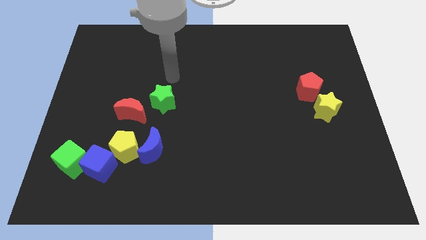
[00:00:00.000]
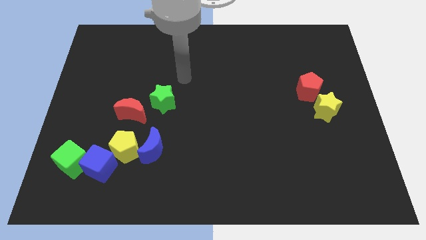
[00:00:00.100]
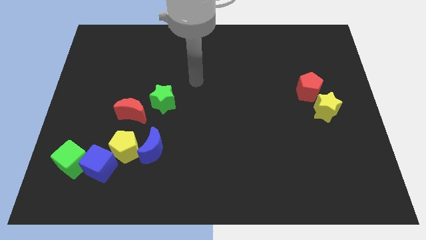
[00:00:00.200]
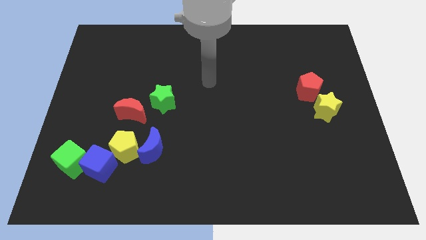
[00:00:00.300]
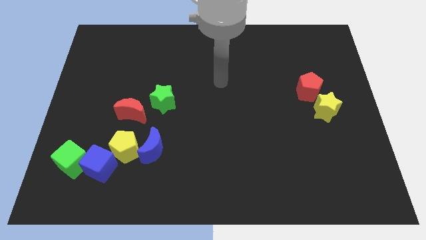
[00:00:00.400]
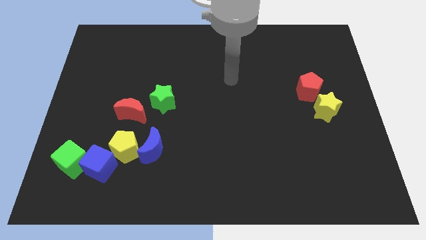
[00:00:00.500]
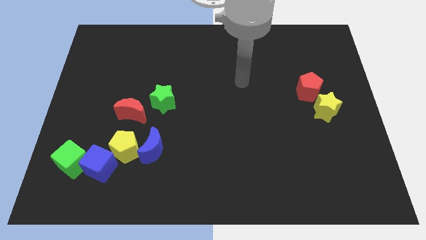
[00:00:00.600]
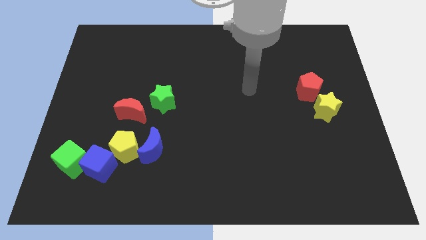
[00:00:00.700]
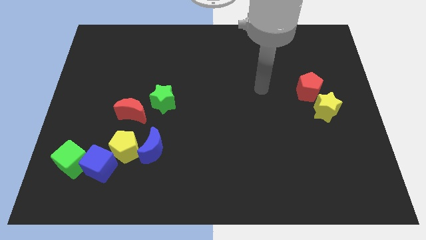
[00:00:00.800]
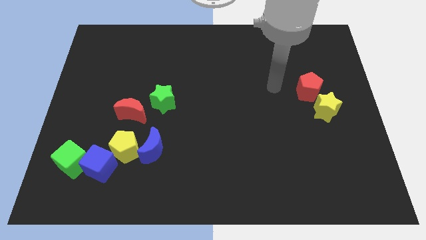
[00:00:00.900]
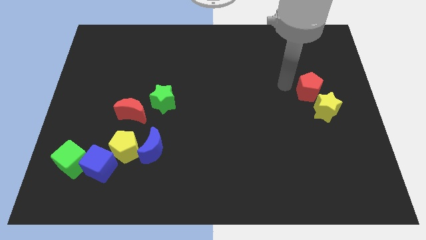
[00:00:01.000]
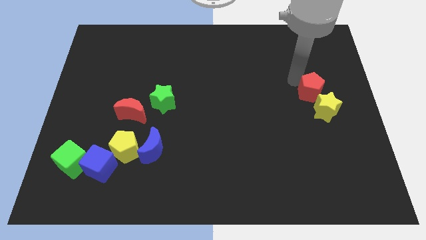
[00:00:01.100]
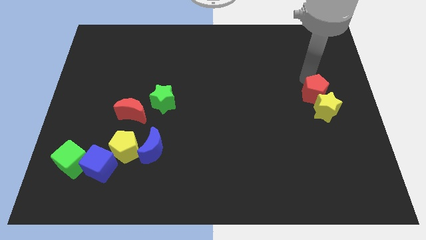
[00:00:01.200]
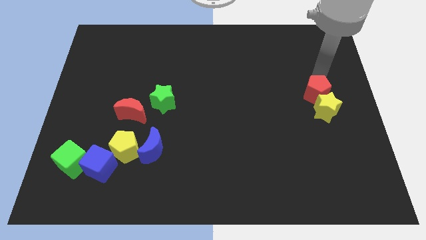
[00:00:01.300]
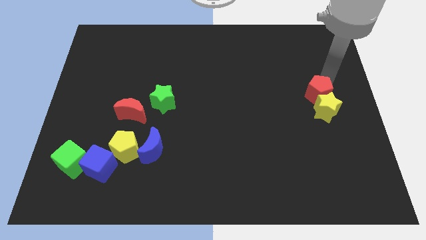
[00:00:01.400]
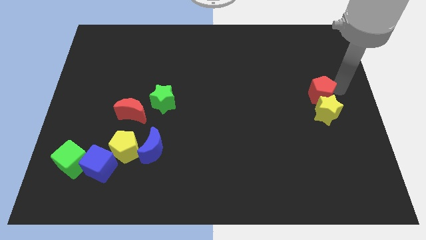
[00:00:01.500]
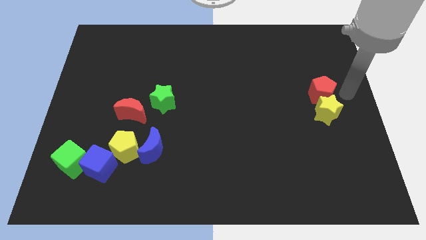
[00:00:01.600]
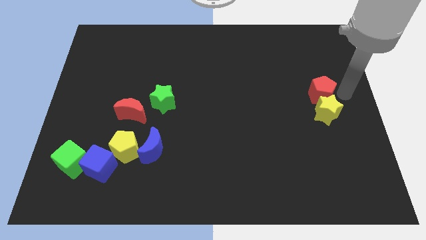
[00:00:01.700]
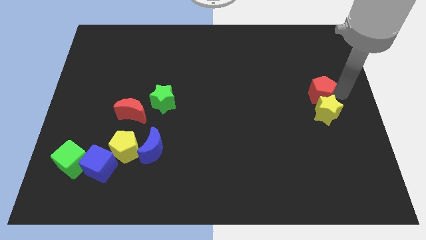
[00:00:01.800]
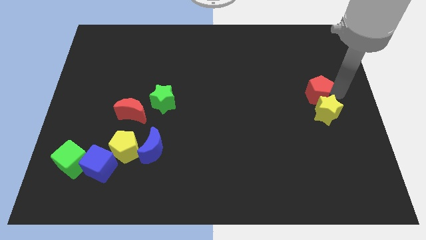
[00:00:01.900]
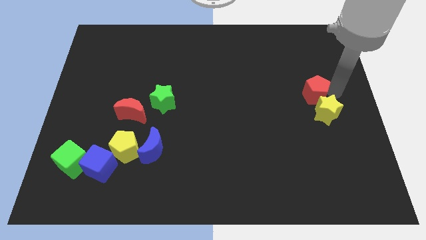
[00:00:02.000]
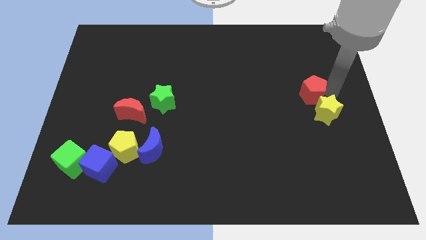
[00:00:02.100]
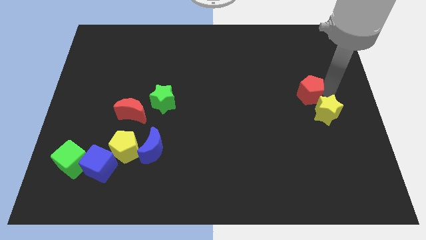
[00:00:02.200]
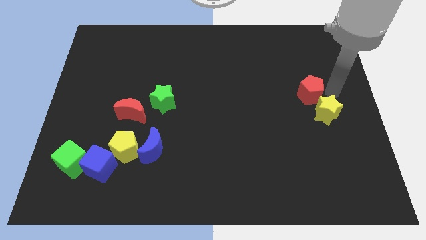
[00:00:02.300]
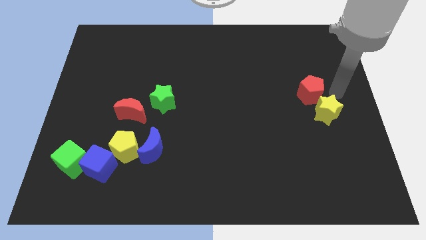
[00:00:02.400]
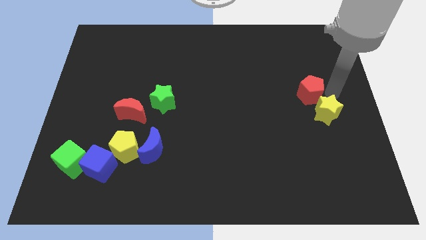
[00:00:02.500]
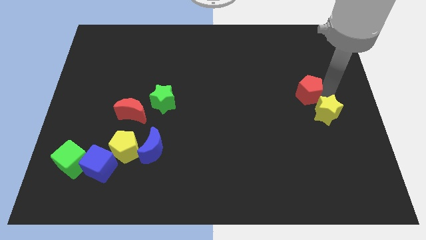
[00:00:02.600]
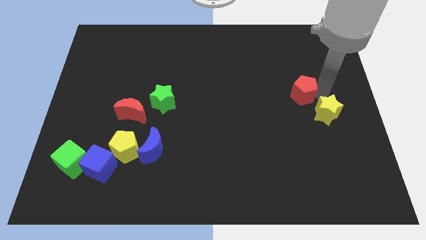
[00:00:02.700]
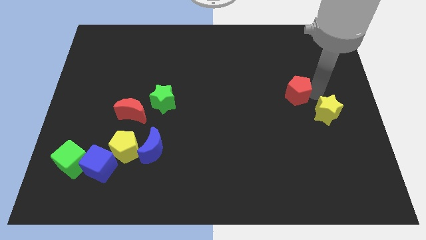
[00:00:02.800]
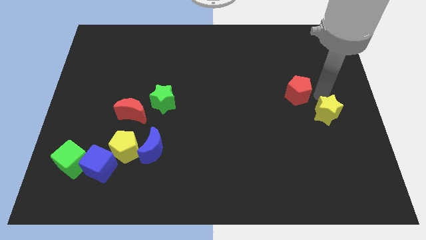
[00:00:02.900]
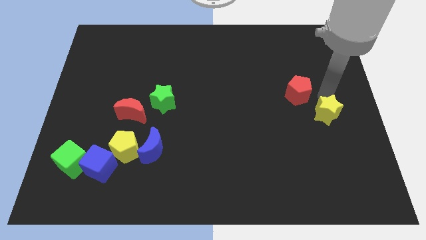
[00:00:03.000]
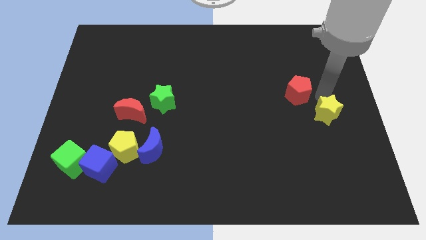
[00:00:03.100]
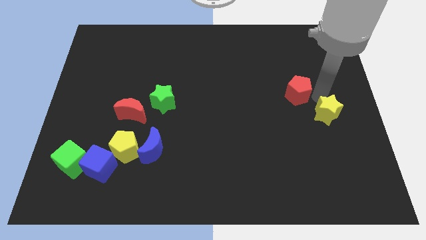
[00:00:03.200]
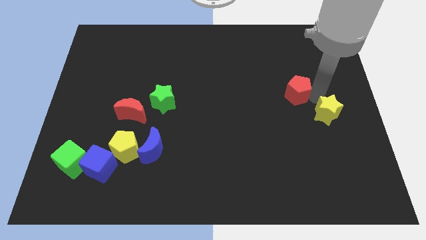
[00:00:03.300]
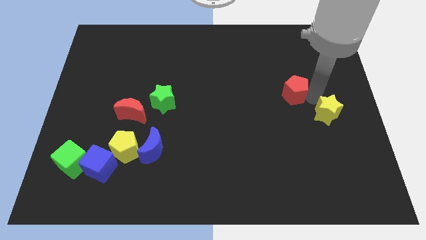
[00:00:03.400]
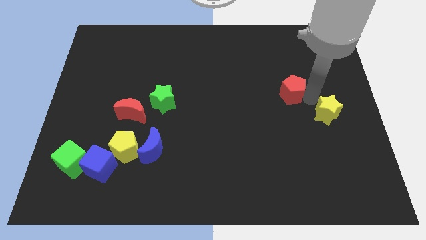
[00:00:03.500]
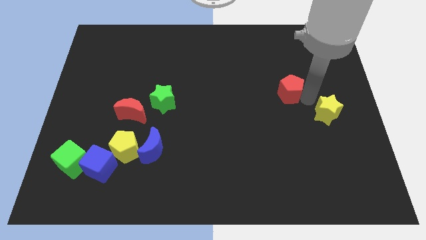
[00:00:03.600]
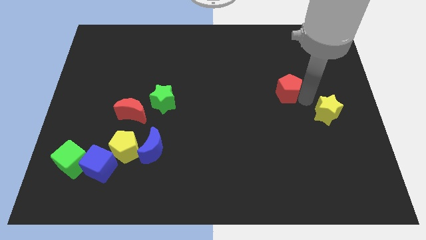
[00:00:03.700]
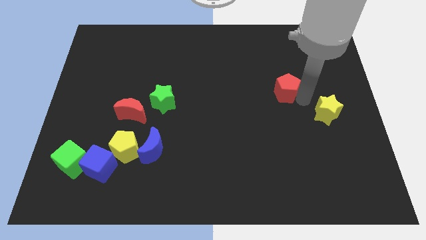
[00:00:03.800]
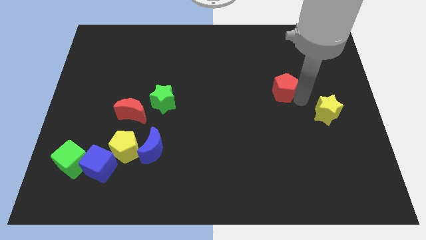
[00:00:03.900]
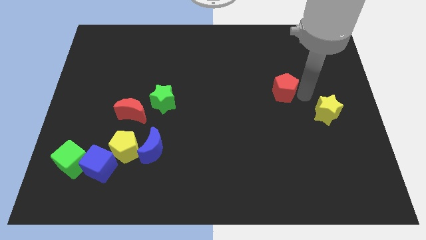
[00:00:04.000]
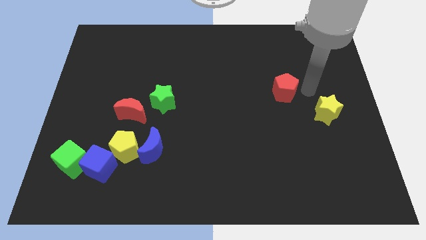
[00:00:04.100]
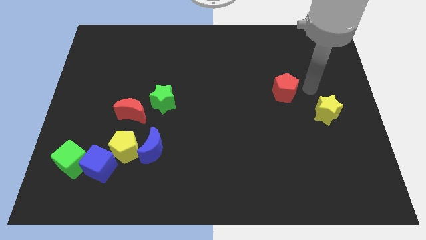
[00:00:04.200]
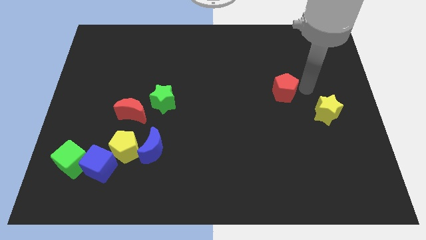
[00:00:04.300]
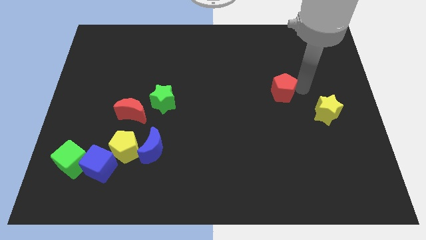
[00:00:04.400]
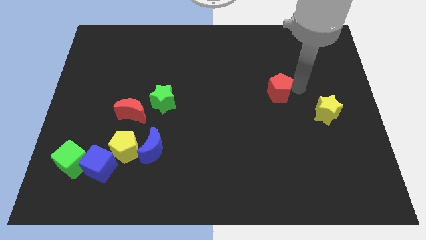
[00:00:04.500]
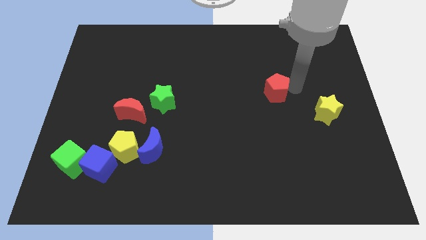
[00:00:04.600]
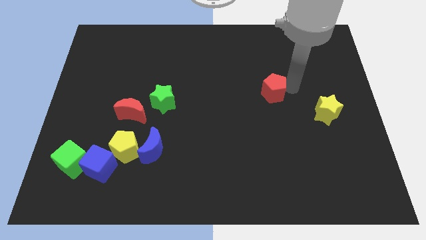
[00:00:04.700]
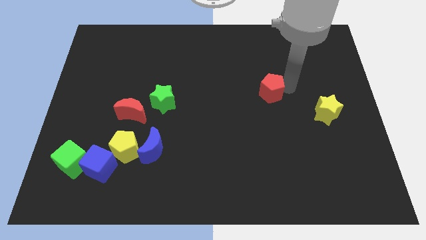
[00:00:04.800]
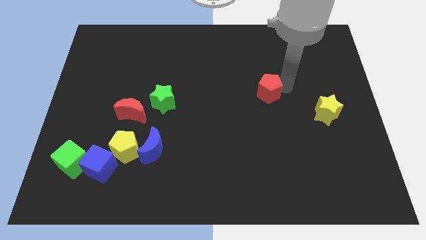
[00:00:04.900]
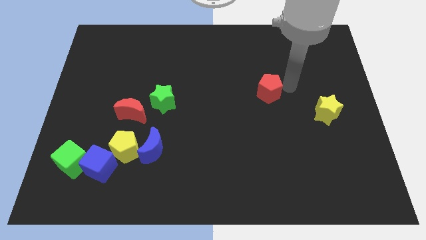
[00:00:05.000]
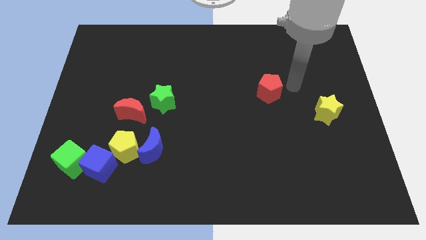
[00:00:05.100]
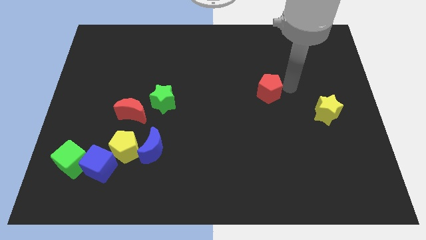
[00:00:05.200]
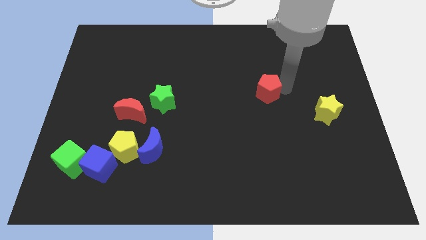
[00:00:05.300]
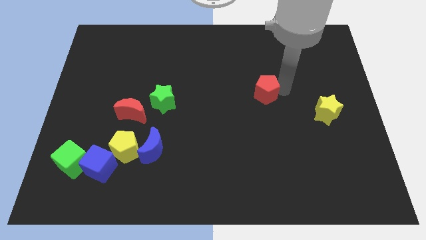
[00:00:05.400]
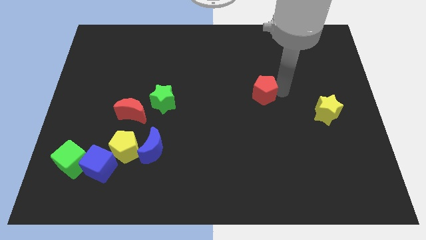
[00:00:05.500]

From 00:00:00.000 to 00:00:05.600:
move the red pentagon to the middle of the board
